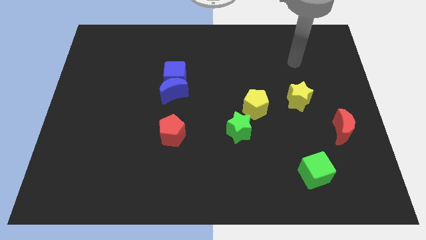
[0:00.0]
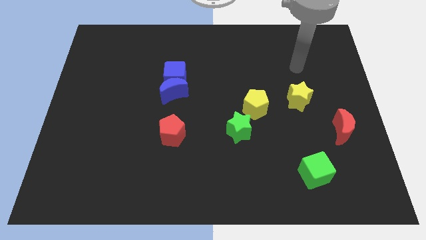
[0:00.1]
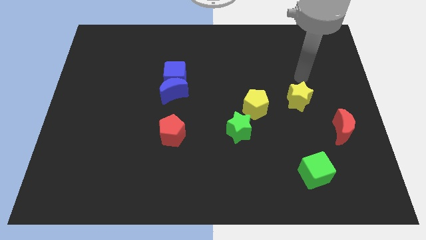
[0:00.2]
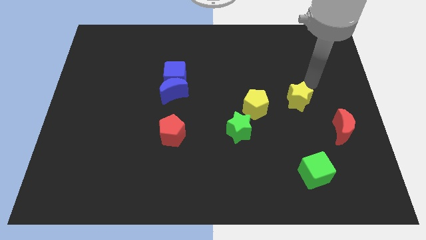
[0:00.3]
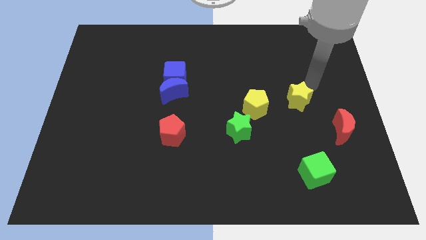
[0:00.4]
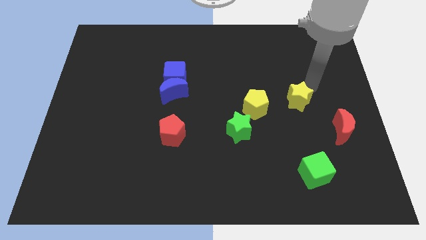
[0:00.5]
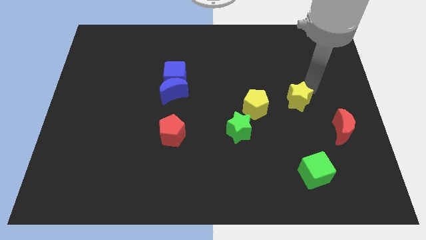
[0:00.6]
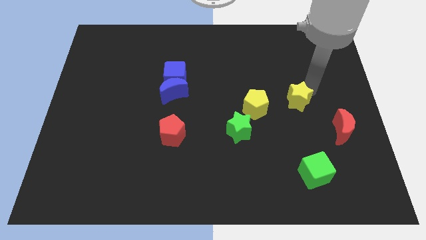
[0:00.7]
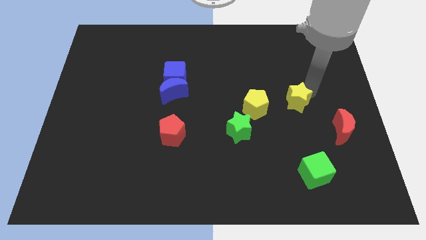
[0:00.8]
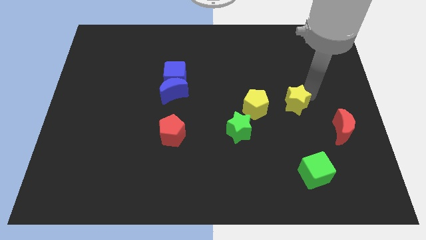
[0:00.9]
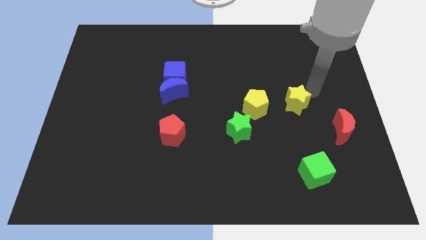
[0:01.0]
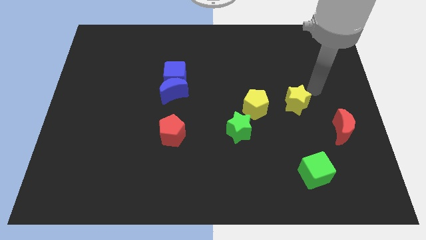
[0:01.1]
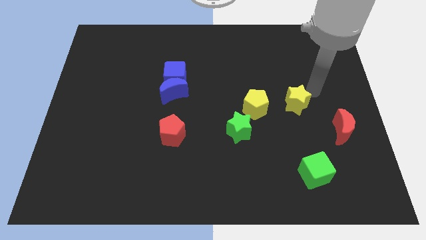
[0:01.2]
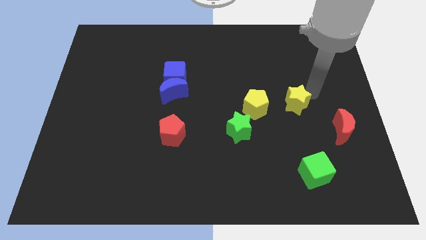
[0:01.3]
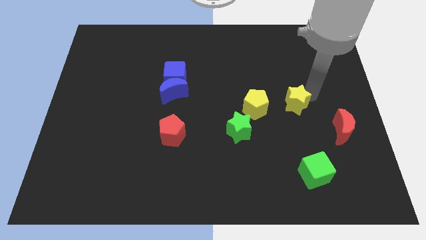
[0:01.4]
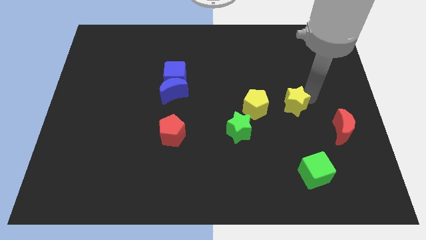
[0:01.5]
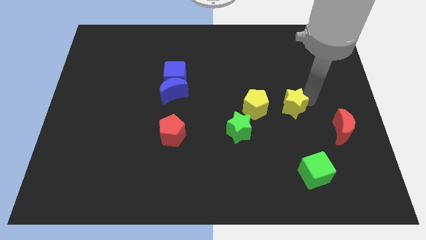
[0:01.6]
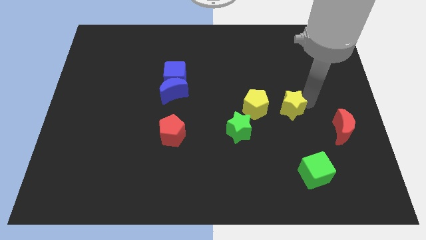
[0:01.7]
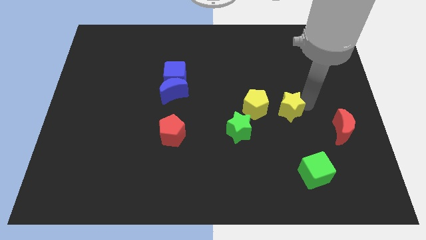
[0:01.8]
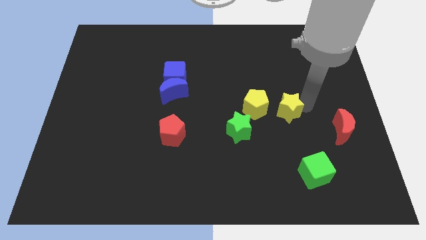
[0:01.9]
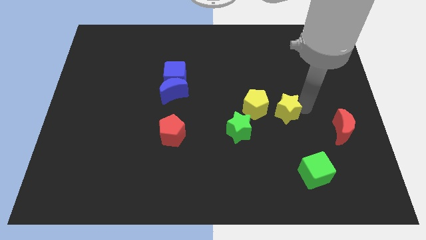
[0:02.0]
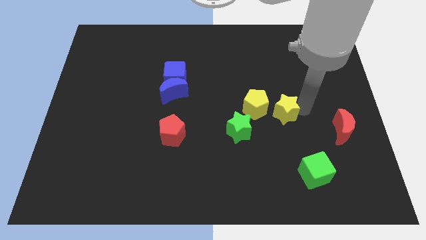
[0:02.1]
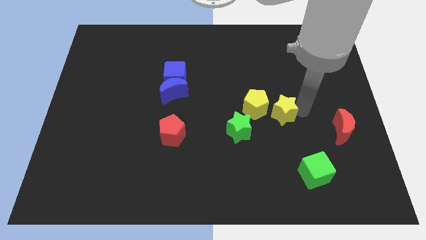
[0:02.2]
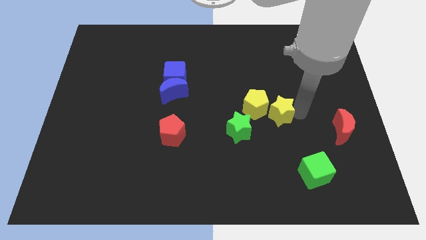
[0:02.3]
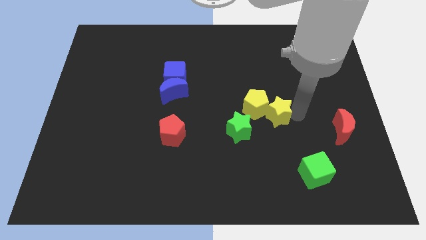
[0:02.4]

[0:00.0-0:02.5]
slide the yellow star down and left slightly

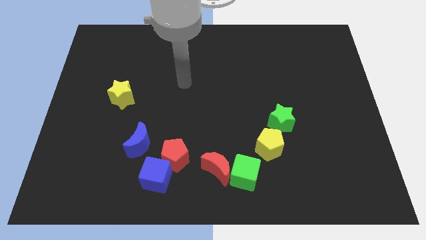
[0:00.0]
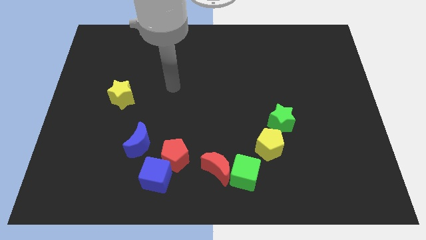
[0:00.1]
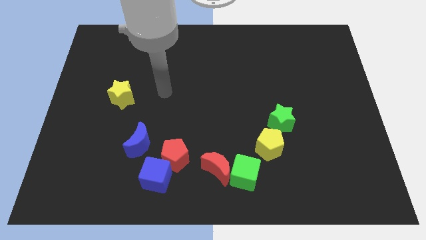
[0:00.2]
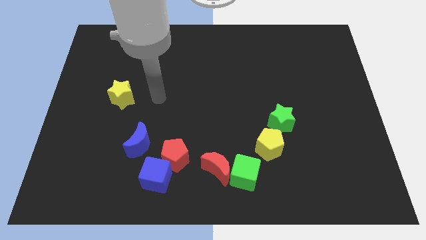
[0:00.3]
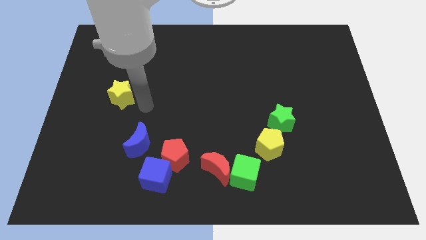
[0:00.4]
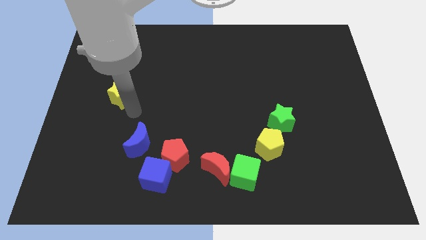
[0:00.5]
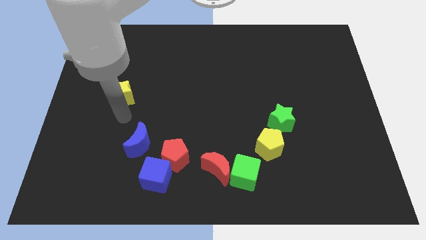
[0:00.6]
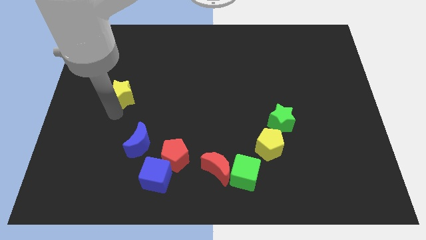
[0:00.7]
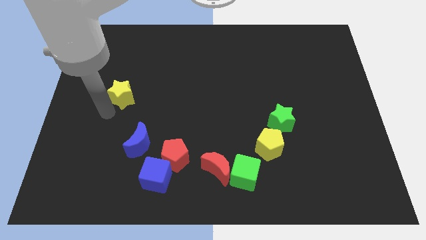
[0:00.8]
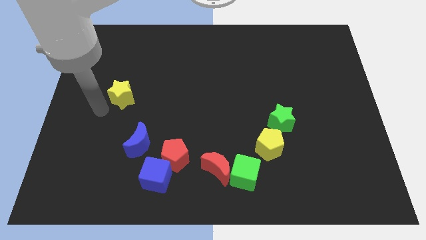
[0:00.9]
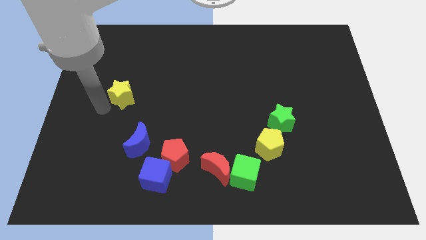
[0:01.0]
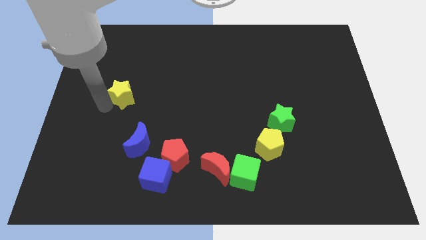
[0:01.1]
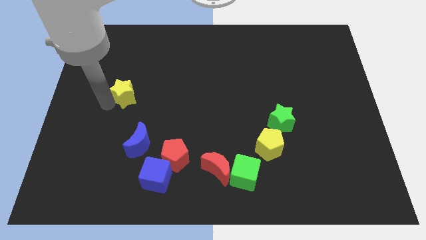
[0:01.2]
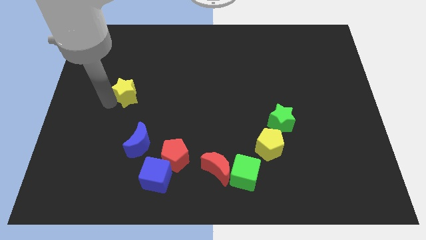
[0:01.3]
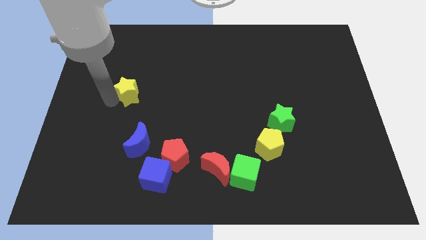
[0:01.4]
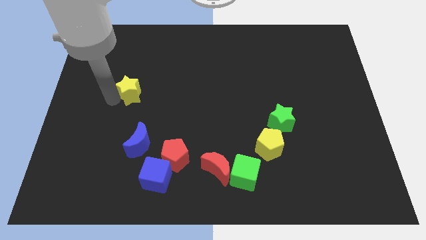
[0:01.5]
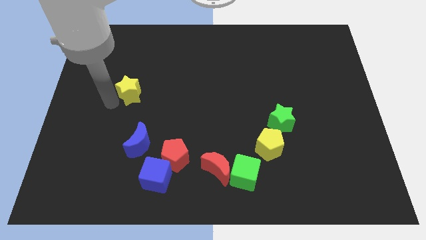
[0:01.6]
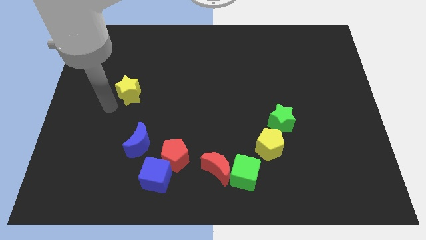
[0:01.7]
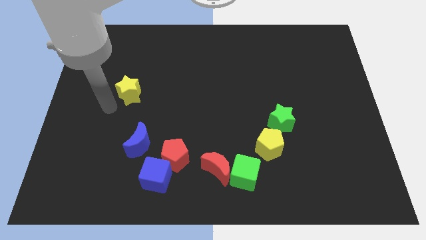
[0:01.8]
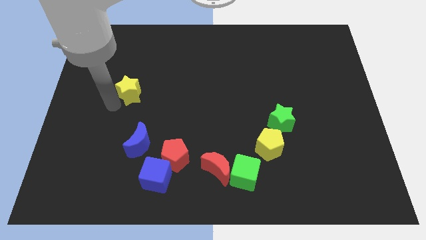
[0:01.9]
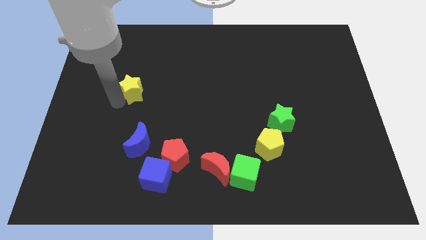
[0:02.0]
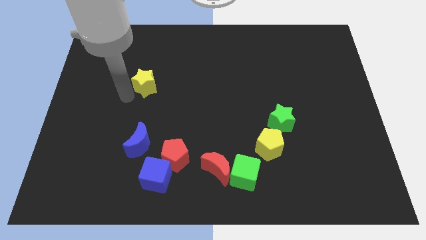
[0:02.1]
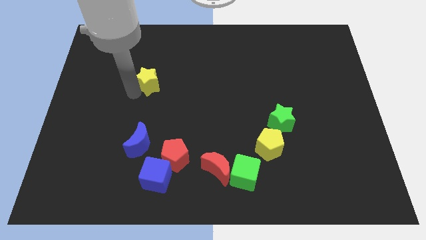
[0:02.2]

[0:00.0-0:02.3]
slide the yellow star diagonally upwards and right a bit

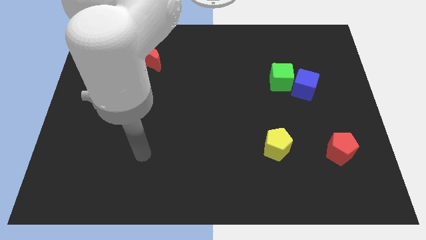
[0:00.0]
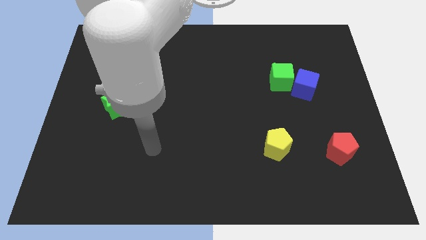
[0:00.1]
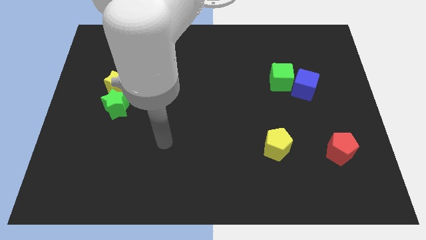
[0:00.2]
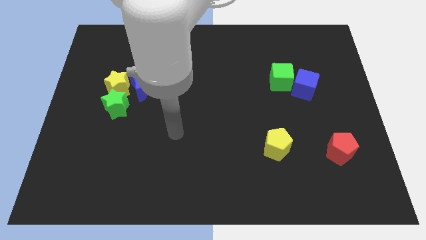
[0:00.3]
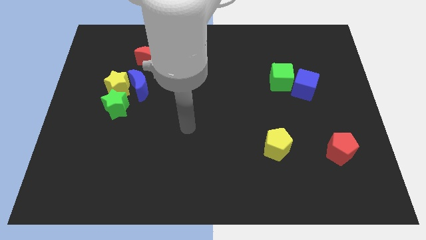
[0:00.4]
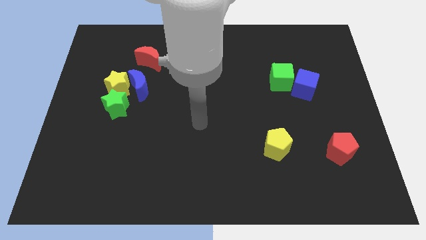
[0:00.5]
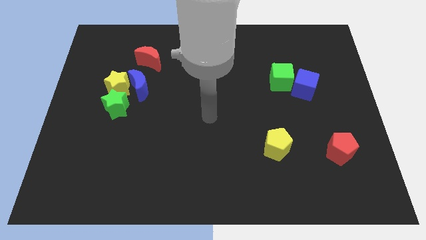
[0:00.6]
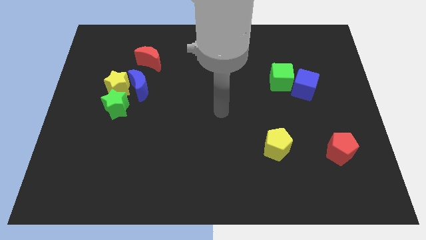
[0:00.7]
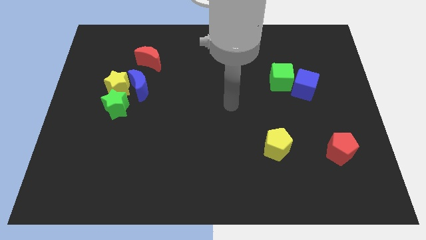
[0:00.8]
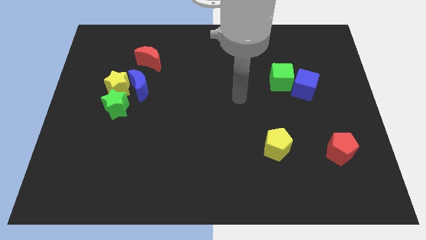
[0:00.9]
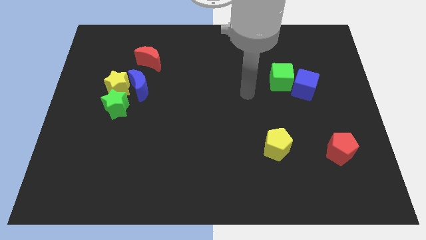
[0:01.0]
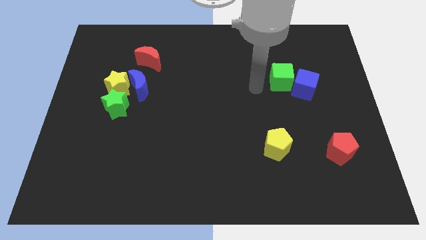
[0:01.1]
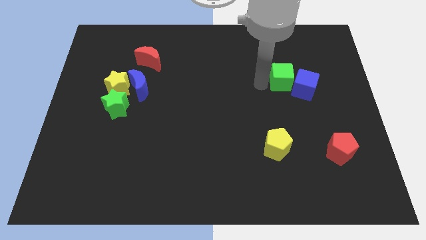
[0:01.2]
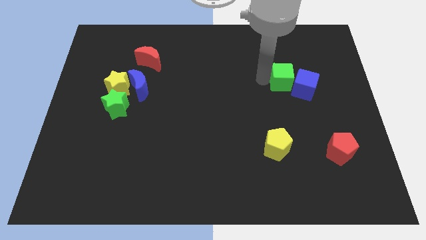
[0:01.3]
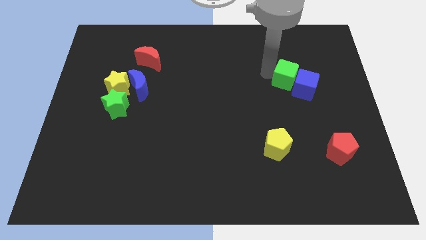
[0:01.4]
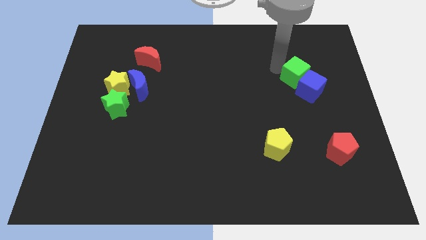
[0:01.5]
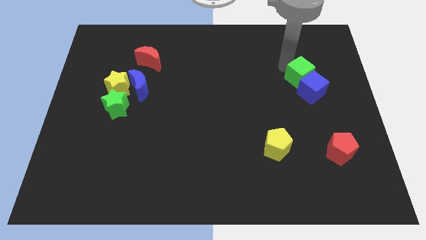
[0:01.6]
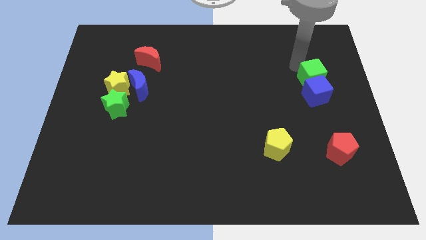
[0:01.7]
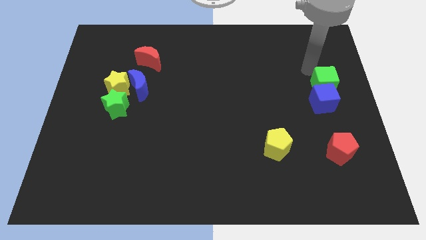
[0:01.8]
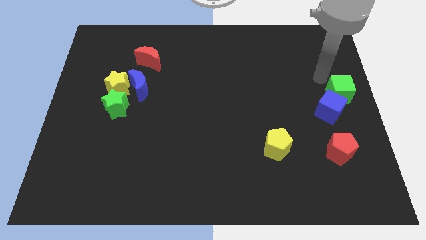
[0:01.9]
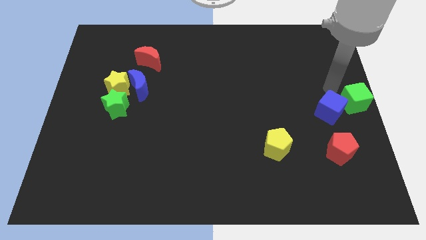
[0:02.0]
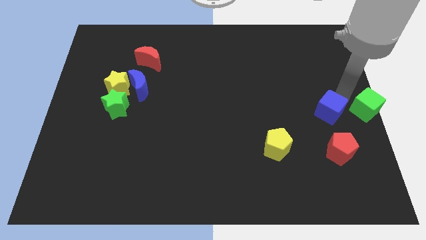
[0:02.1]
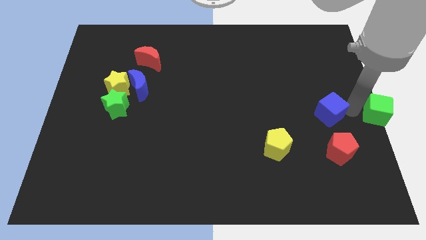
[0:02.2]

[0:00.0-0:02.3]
move the blue cube downwards somewhat

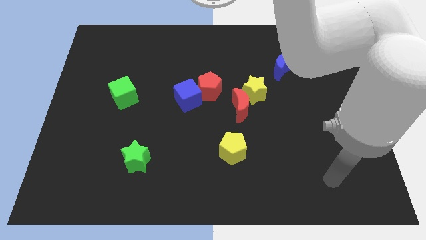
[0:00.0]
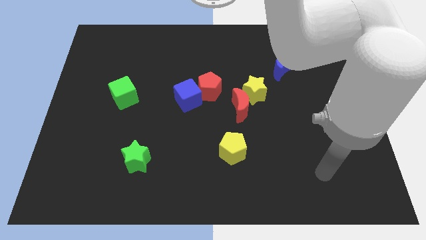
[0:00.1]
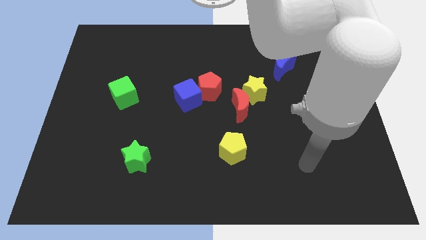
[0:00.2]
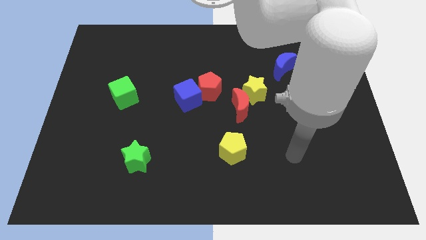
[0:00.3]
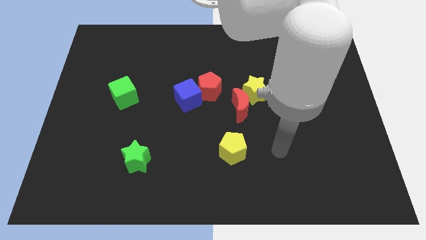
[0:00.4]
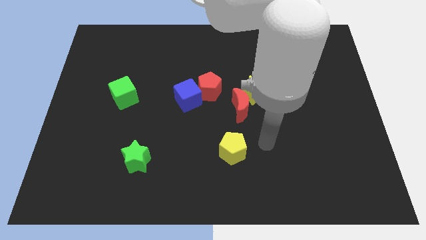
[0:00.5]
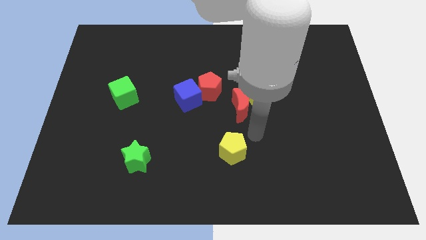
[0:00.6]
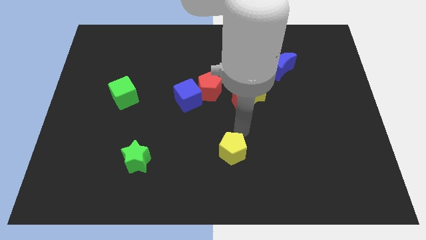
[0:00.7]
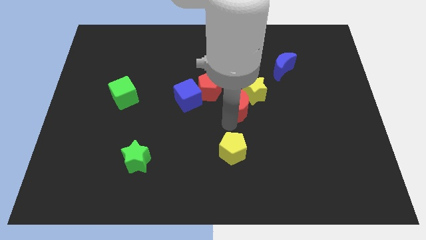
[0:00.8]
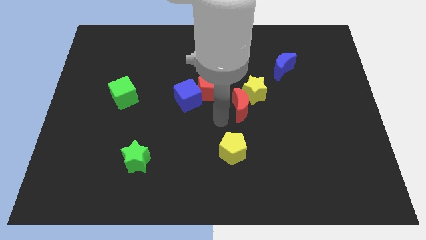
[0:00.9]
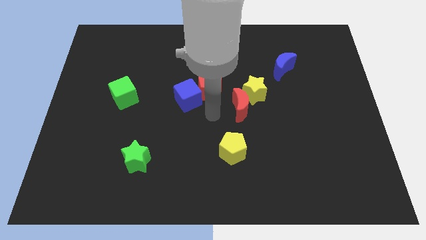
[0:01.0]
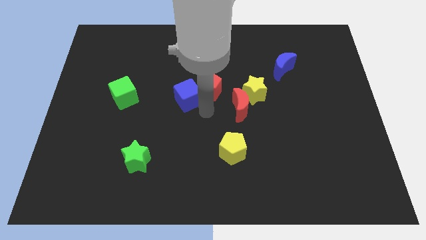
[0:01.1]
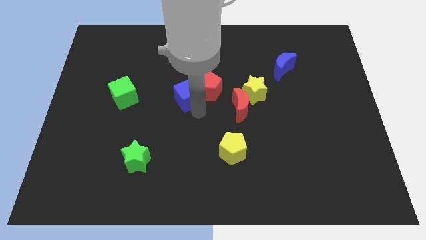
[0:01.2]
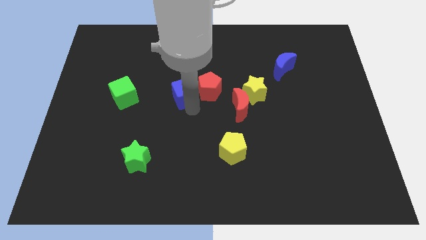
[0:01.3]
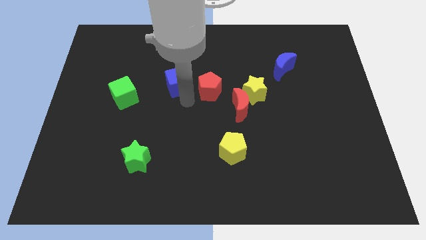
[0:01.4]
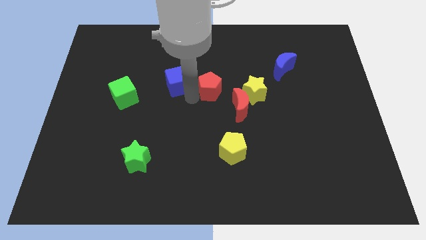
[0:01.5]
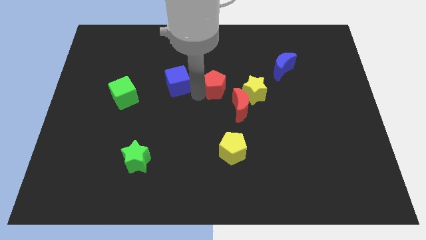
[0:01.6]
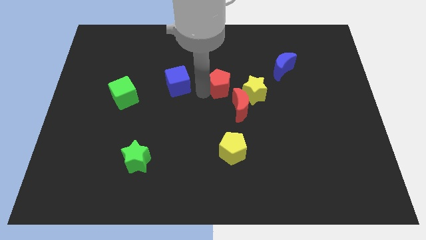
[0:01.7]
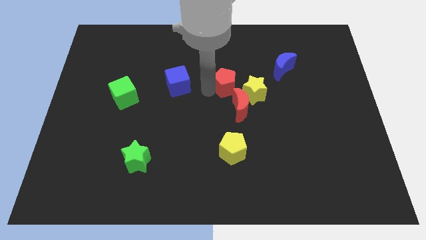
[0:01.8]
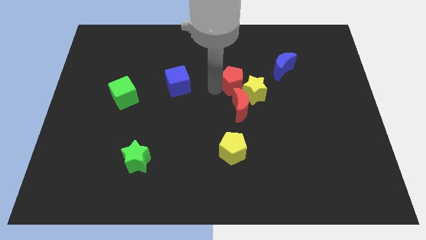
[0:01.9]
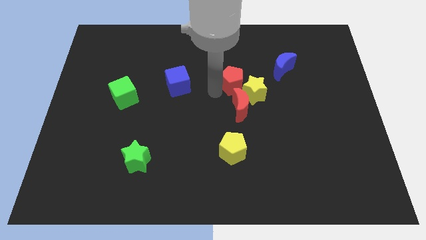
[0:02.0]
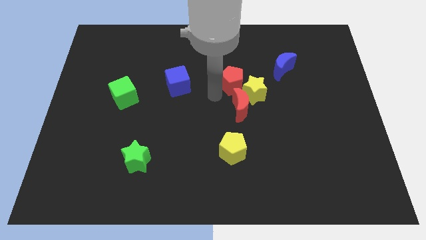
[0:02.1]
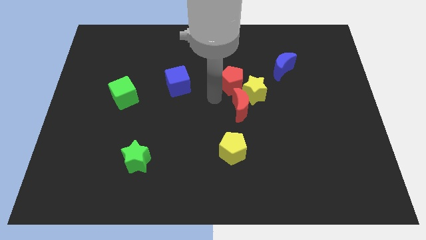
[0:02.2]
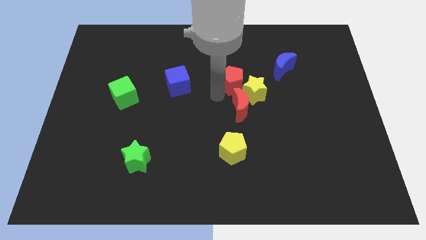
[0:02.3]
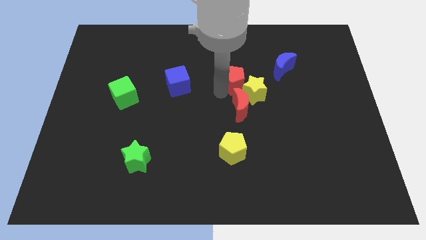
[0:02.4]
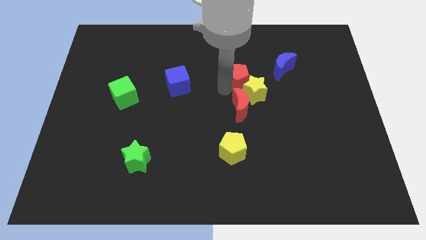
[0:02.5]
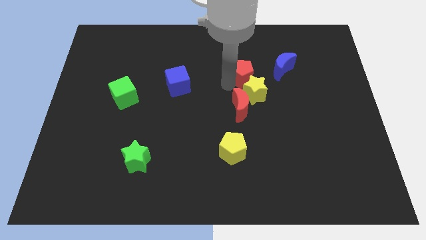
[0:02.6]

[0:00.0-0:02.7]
push the red pentagon a bit to the right
